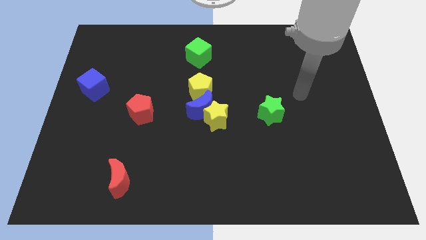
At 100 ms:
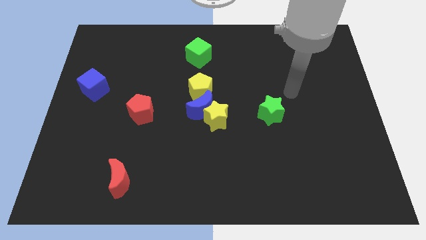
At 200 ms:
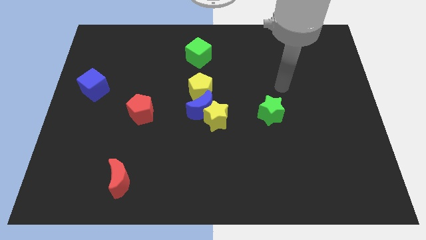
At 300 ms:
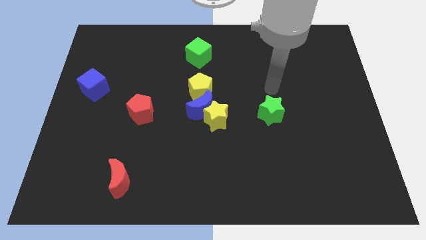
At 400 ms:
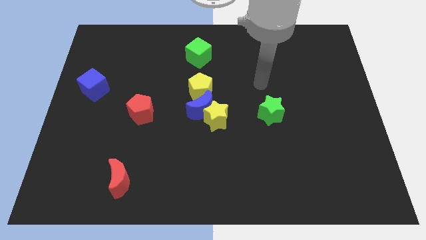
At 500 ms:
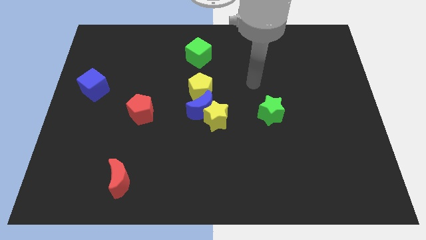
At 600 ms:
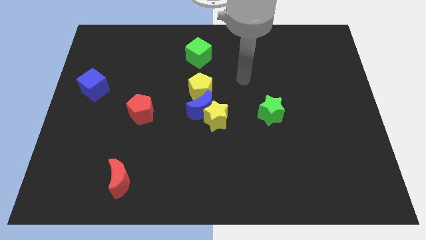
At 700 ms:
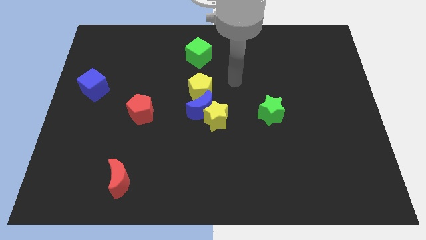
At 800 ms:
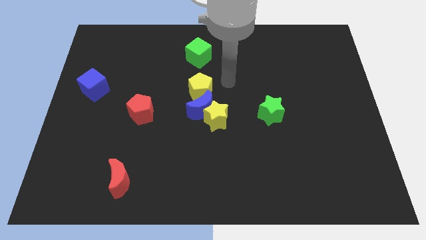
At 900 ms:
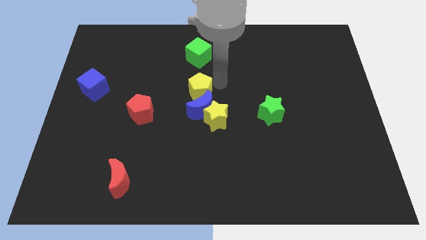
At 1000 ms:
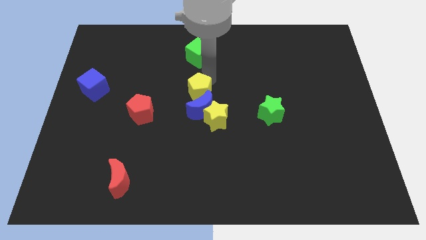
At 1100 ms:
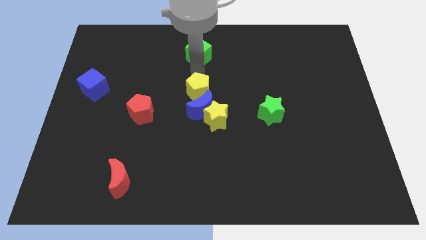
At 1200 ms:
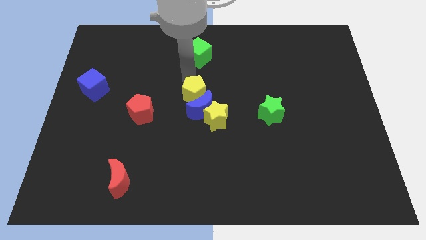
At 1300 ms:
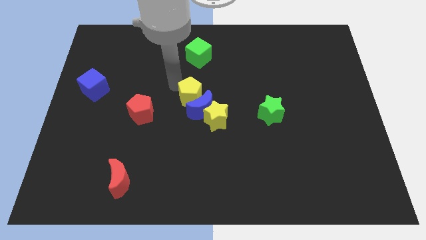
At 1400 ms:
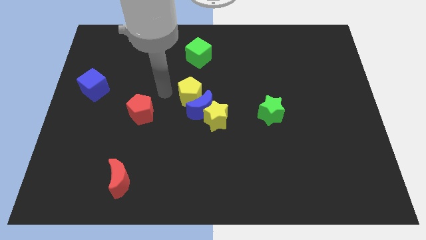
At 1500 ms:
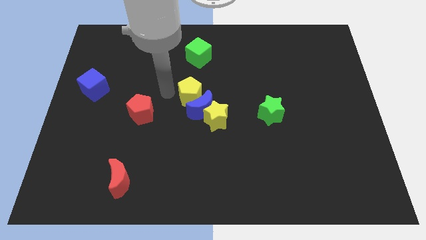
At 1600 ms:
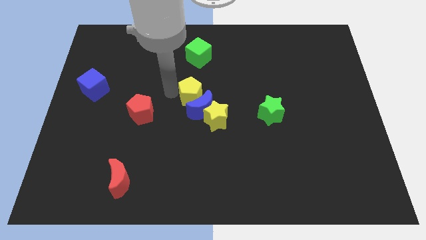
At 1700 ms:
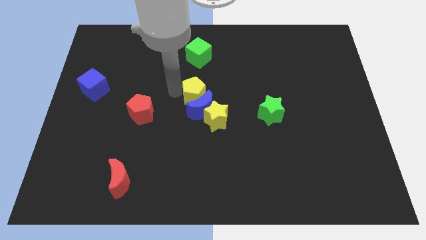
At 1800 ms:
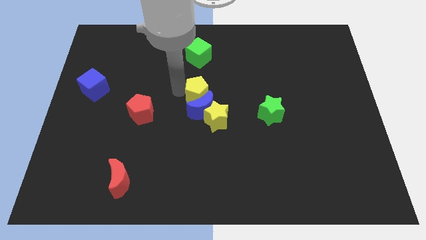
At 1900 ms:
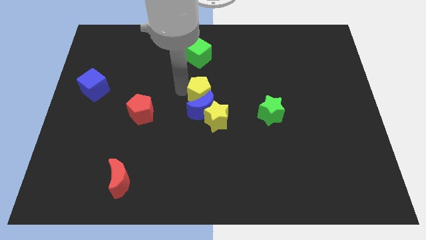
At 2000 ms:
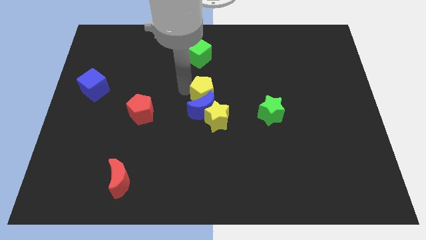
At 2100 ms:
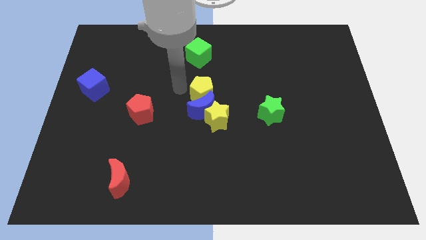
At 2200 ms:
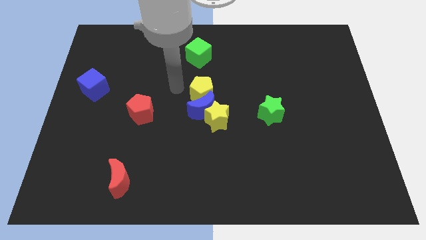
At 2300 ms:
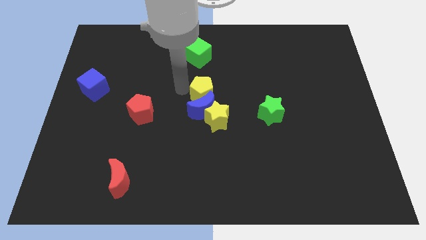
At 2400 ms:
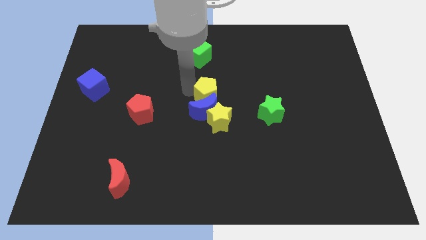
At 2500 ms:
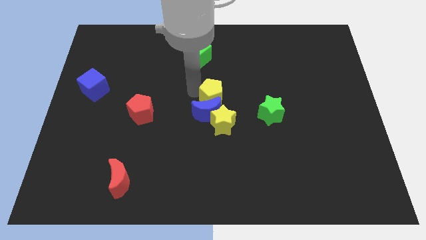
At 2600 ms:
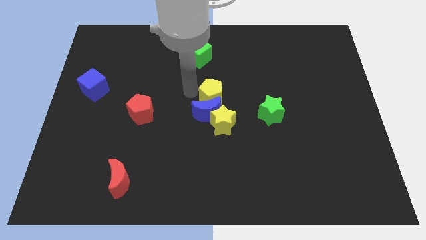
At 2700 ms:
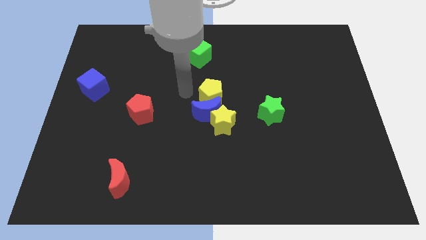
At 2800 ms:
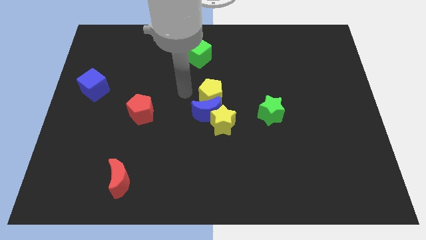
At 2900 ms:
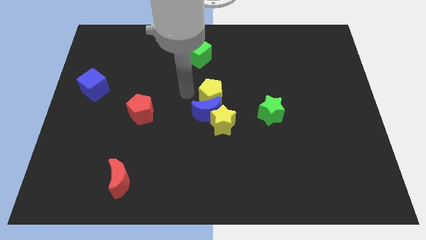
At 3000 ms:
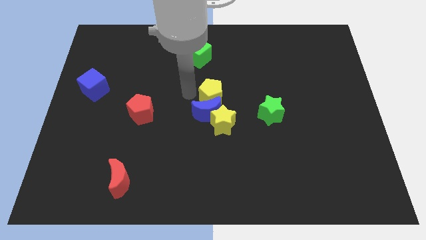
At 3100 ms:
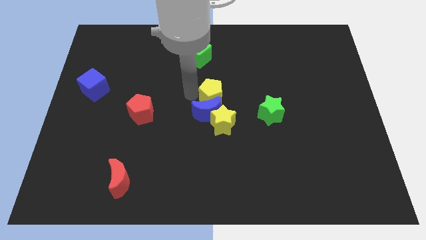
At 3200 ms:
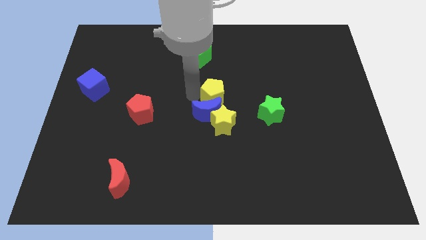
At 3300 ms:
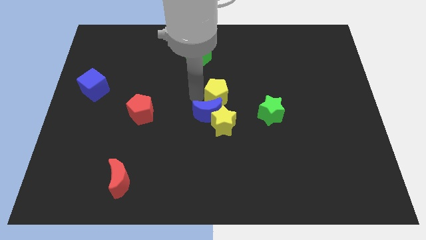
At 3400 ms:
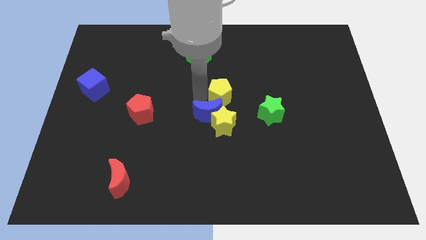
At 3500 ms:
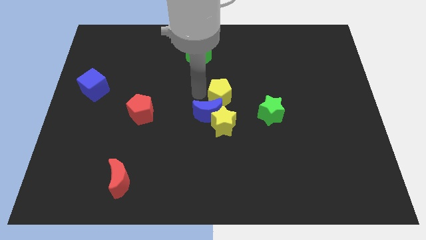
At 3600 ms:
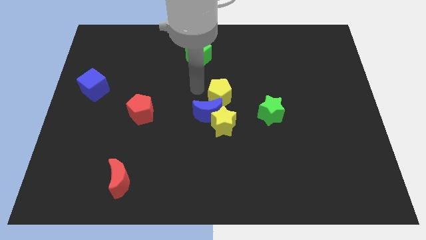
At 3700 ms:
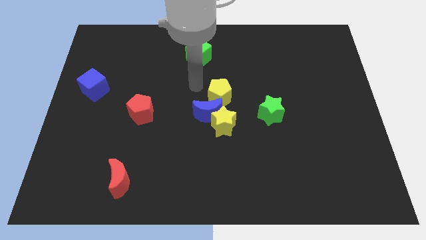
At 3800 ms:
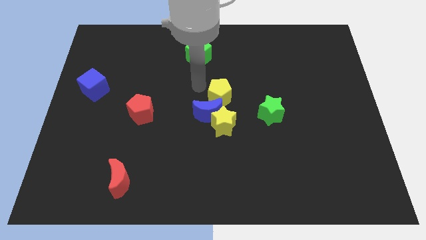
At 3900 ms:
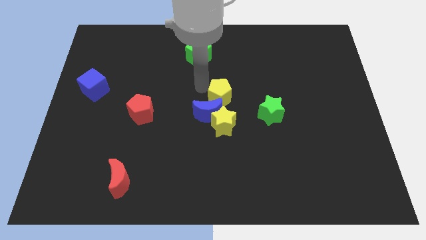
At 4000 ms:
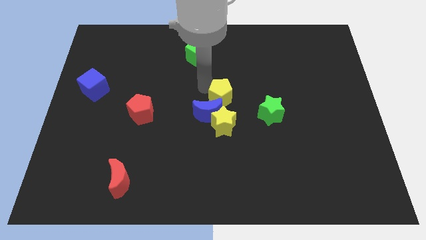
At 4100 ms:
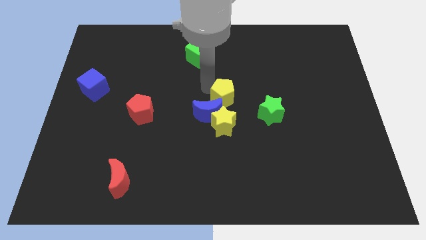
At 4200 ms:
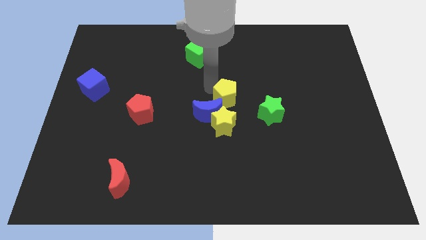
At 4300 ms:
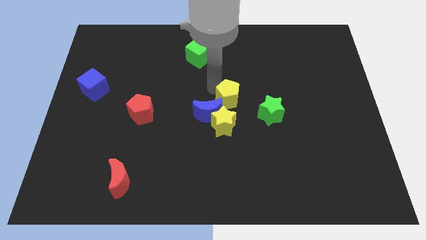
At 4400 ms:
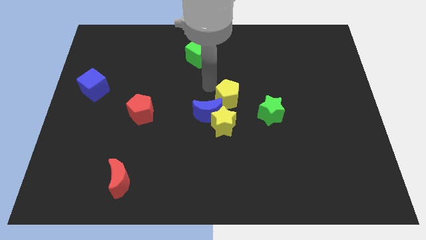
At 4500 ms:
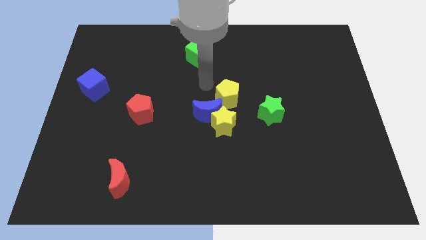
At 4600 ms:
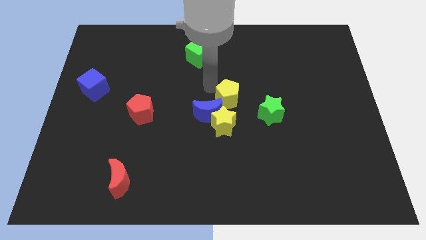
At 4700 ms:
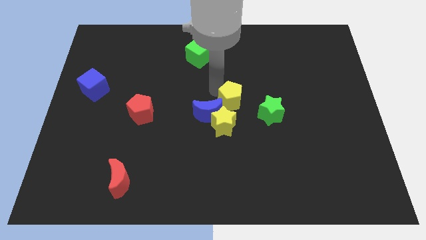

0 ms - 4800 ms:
move the yellow pentagon diagonally up and to the right of the yellow star

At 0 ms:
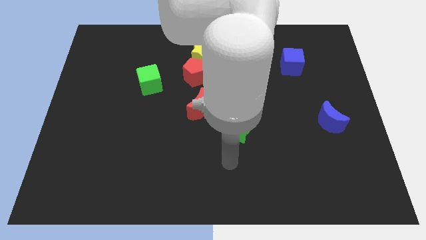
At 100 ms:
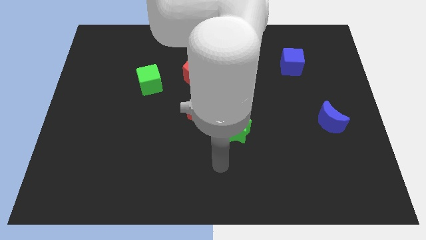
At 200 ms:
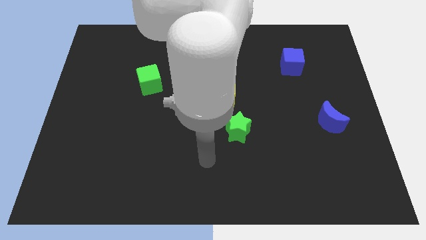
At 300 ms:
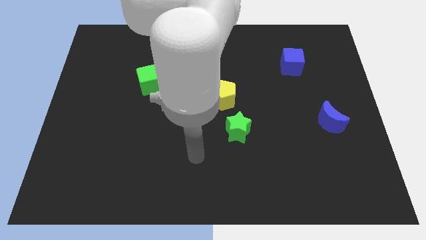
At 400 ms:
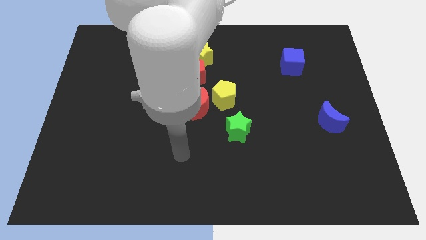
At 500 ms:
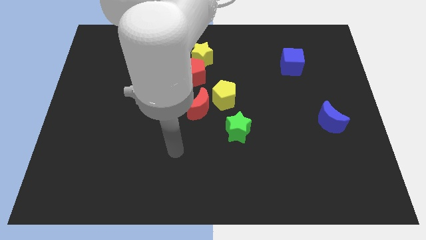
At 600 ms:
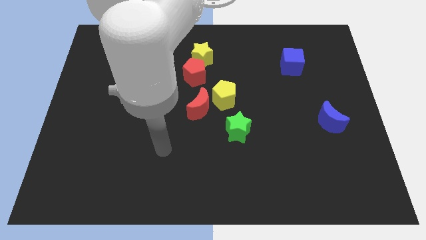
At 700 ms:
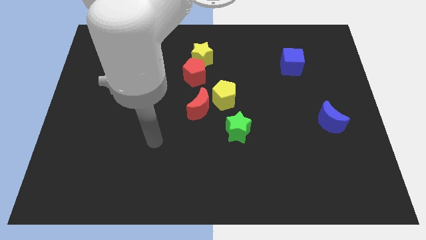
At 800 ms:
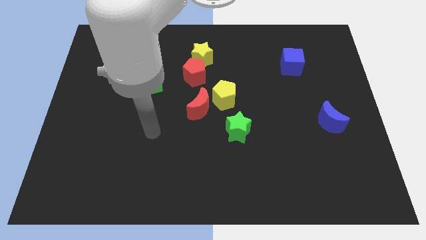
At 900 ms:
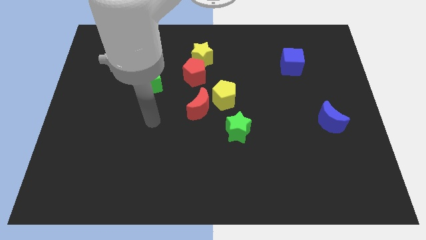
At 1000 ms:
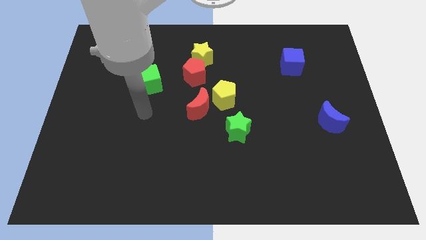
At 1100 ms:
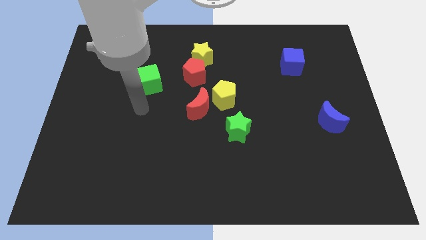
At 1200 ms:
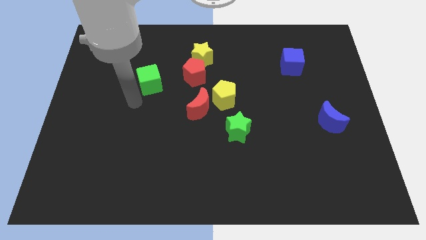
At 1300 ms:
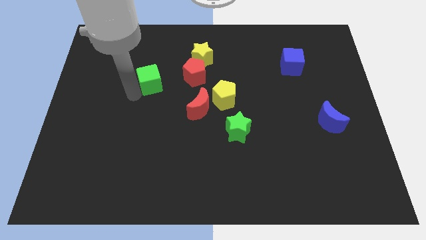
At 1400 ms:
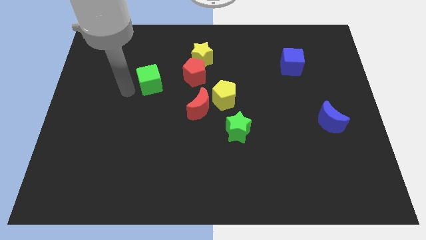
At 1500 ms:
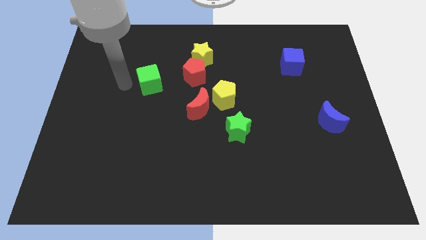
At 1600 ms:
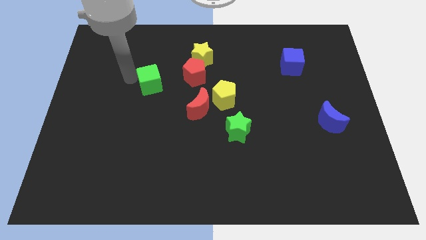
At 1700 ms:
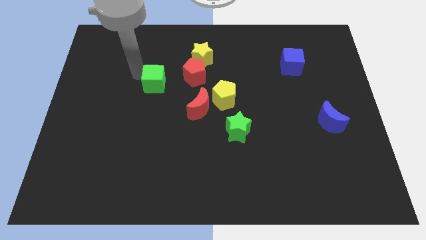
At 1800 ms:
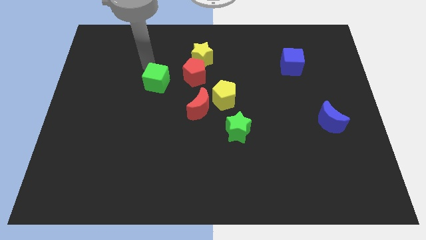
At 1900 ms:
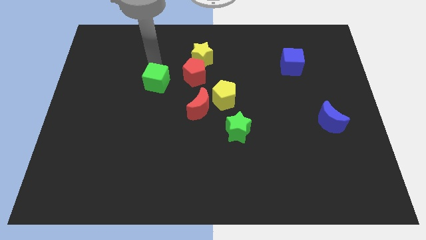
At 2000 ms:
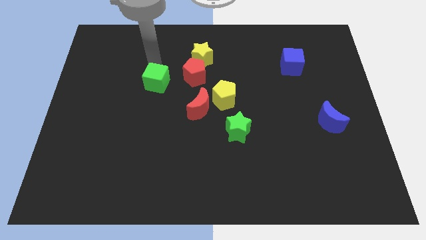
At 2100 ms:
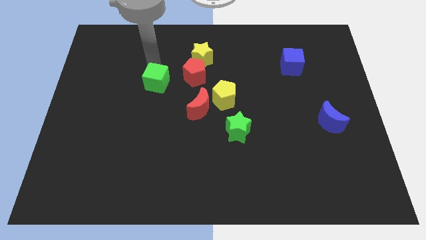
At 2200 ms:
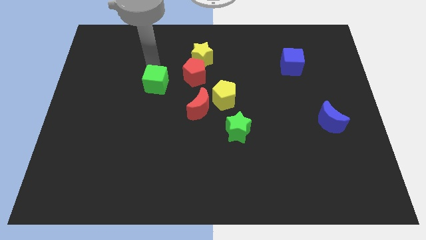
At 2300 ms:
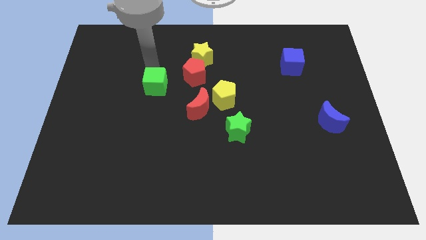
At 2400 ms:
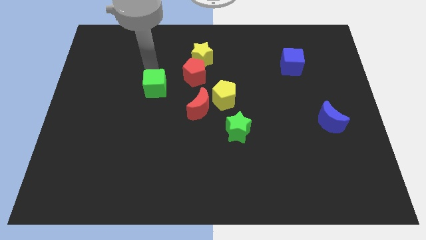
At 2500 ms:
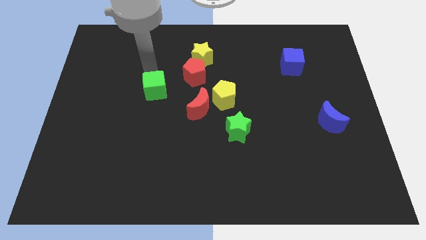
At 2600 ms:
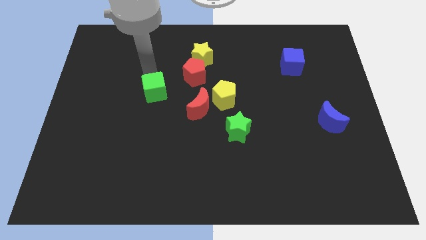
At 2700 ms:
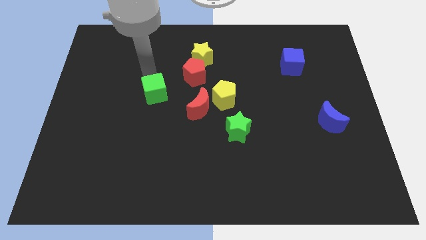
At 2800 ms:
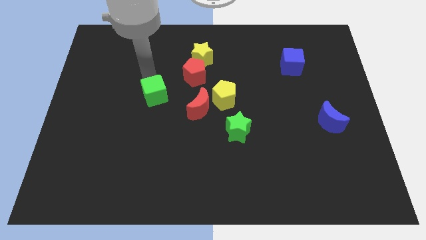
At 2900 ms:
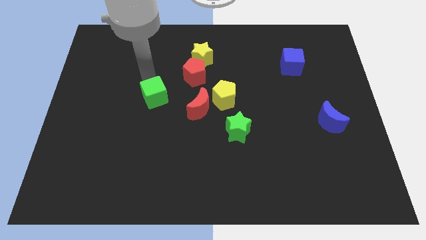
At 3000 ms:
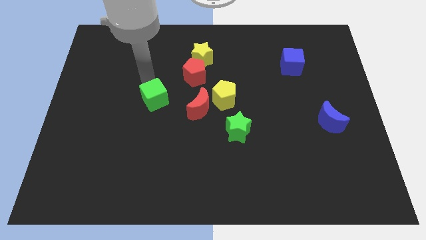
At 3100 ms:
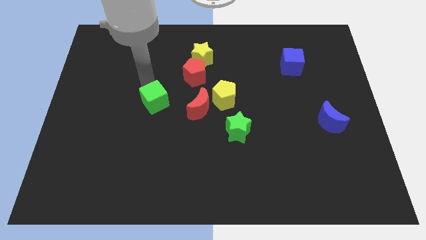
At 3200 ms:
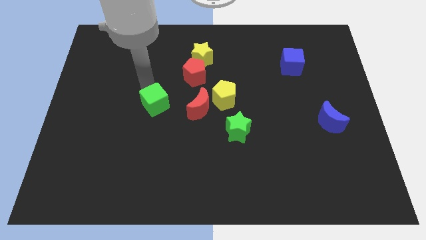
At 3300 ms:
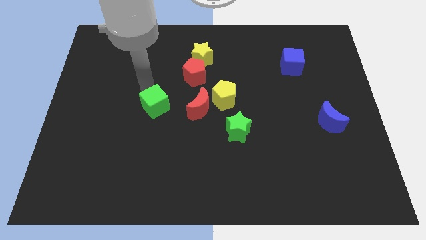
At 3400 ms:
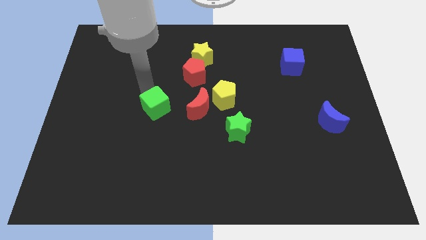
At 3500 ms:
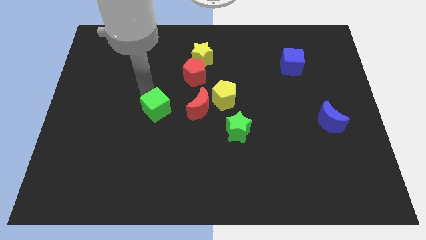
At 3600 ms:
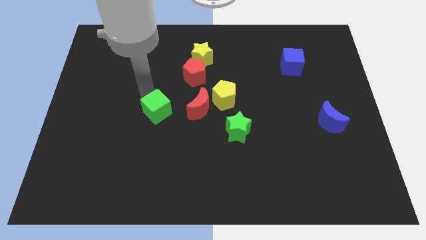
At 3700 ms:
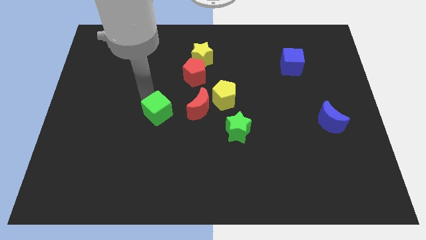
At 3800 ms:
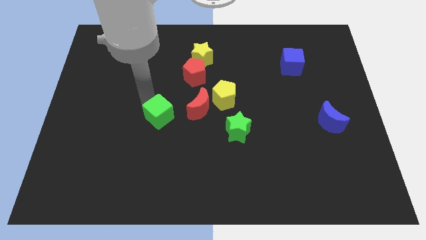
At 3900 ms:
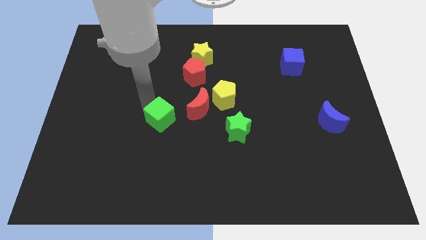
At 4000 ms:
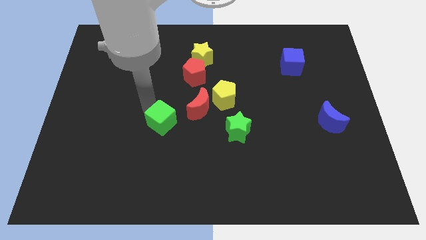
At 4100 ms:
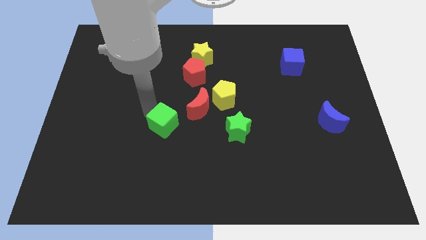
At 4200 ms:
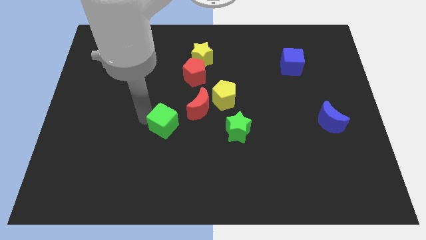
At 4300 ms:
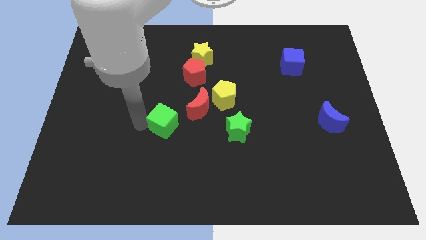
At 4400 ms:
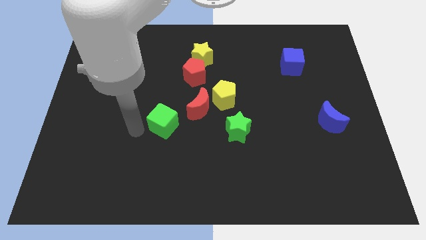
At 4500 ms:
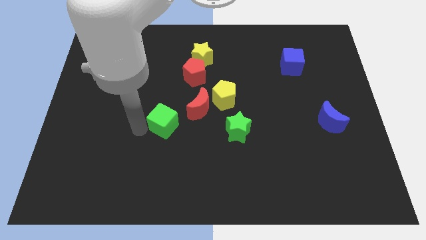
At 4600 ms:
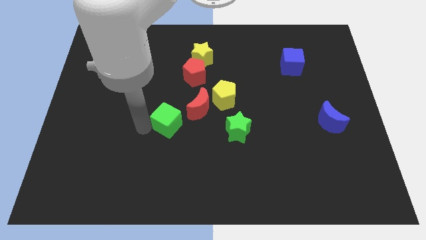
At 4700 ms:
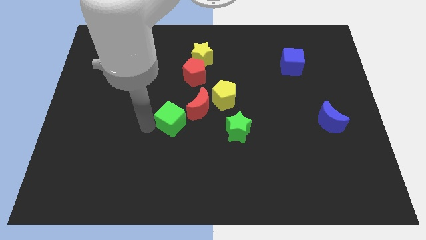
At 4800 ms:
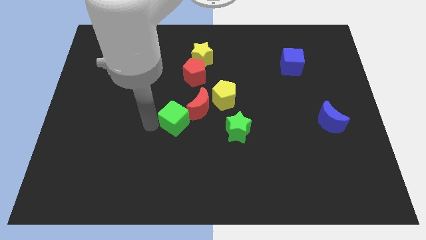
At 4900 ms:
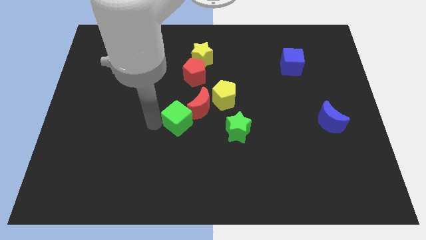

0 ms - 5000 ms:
push the green cube to the bottom left of the yellow pentagon
